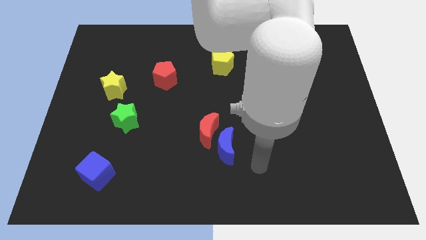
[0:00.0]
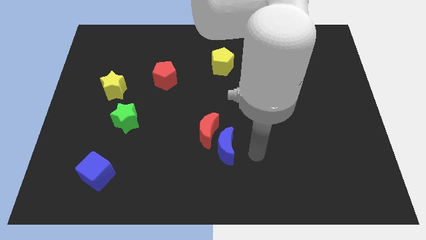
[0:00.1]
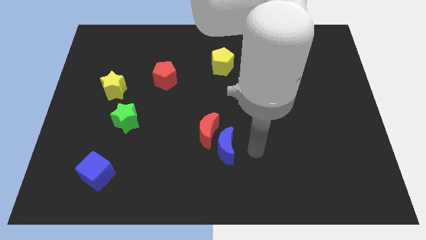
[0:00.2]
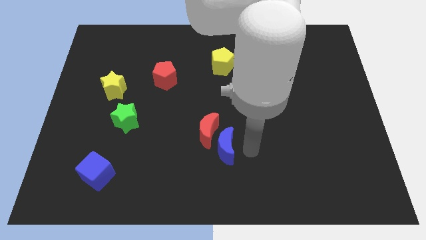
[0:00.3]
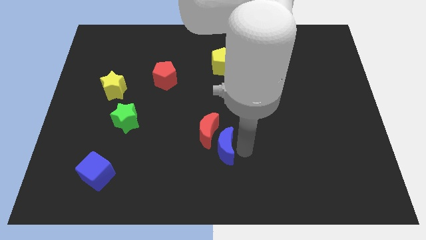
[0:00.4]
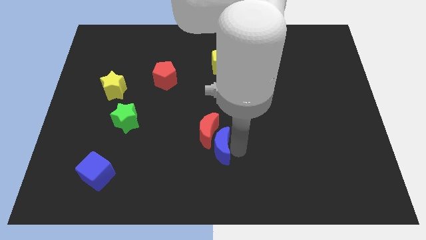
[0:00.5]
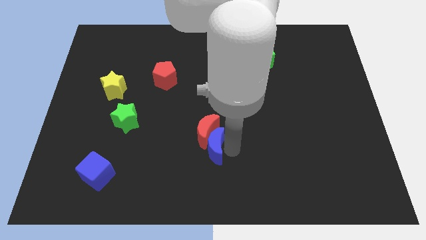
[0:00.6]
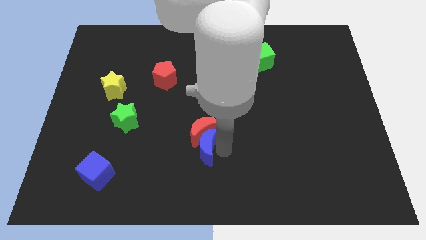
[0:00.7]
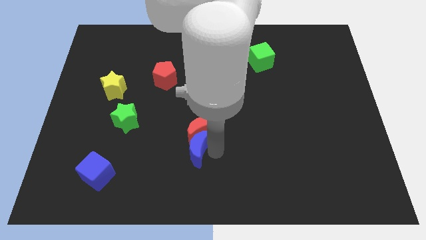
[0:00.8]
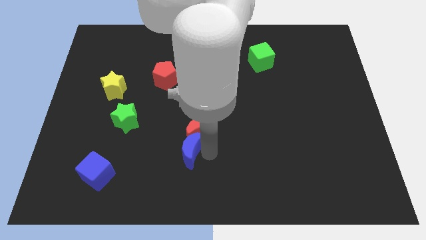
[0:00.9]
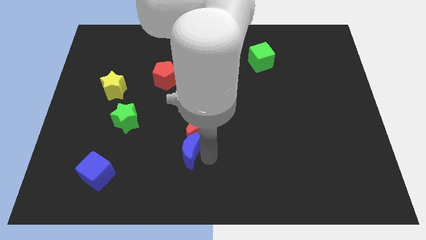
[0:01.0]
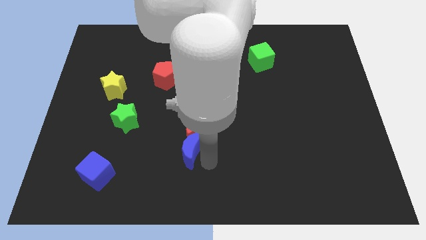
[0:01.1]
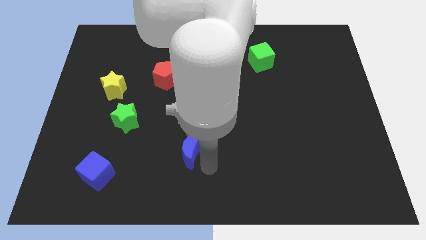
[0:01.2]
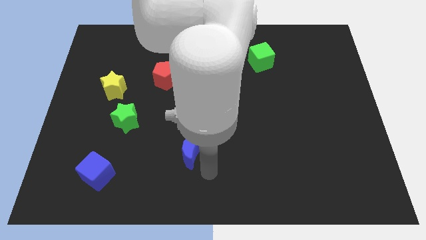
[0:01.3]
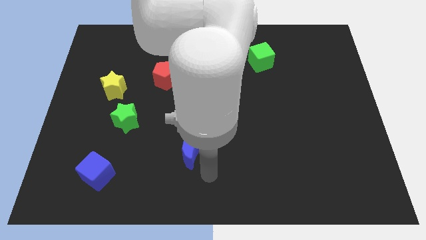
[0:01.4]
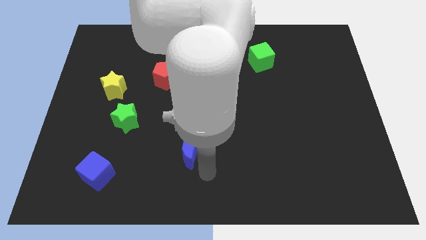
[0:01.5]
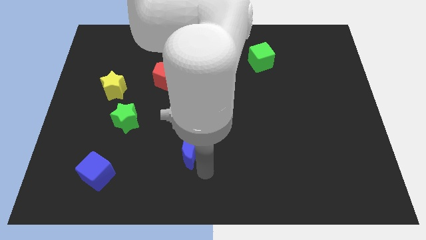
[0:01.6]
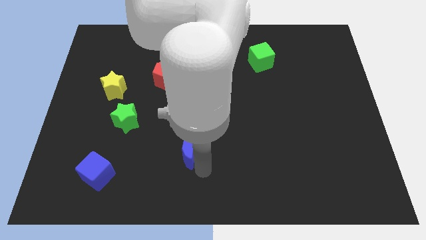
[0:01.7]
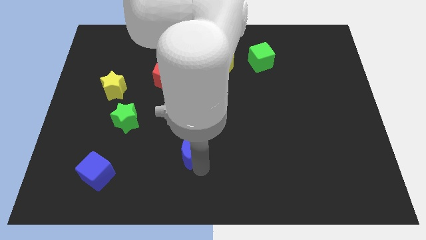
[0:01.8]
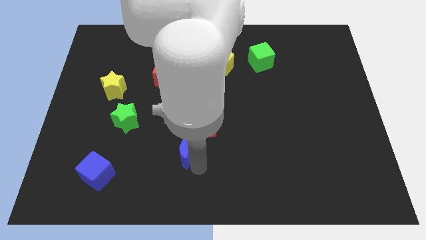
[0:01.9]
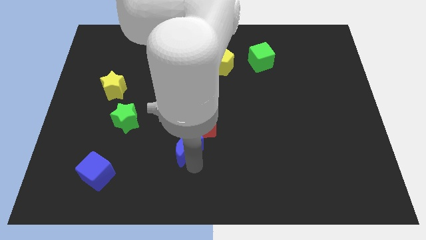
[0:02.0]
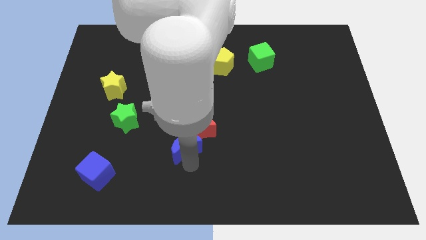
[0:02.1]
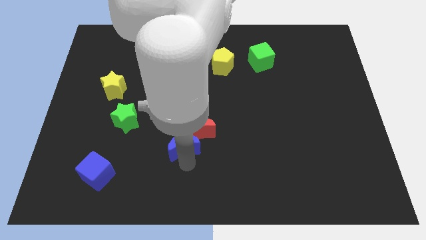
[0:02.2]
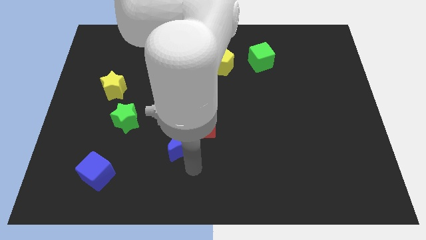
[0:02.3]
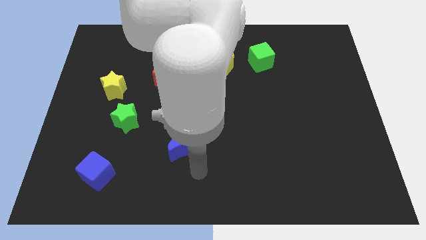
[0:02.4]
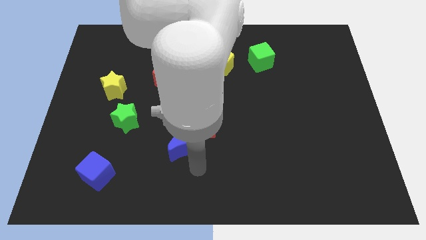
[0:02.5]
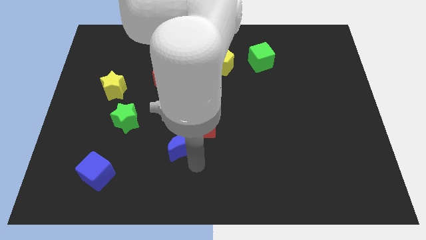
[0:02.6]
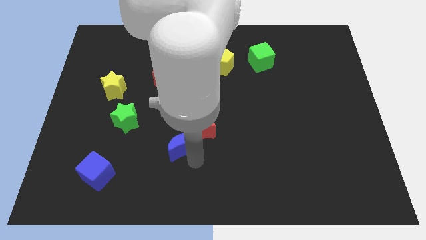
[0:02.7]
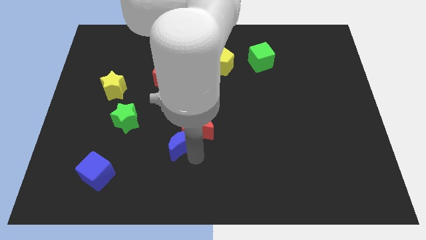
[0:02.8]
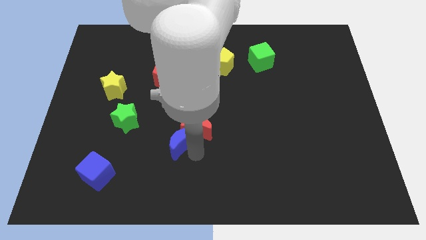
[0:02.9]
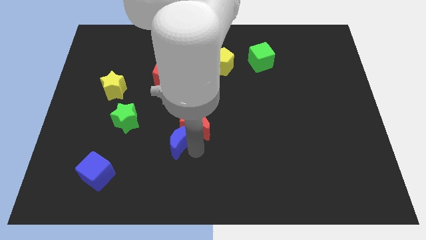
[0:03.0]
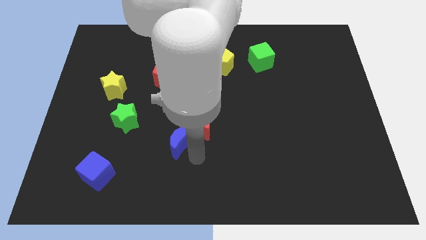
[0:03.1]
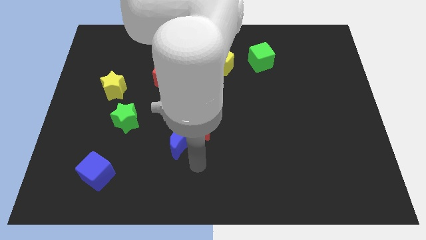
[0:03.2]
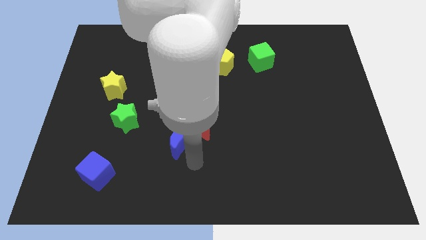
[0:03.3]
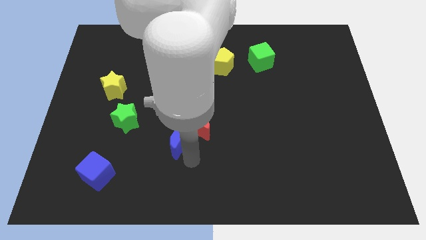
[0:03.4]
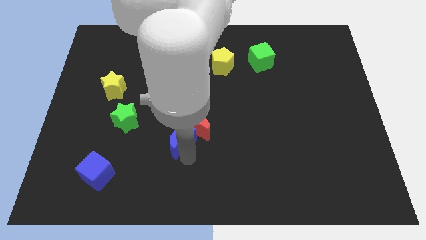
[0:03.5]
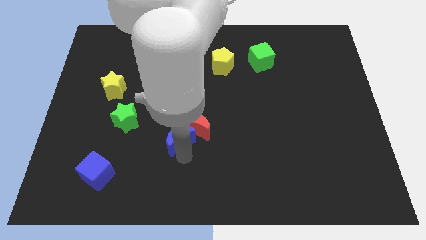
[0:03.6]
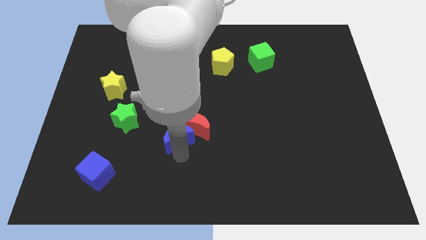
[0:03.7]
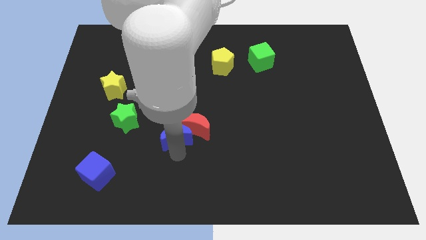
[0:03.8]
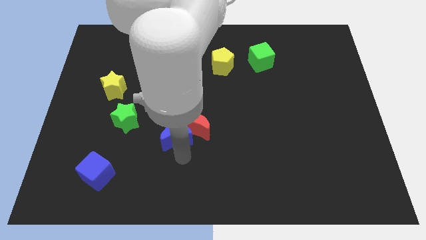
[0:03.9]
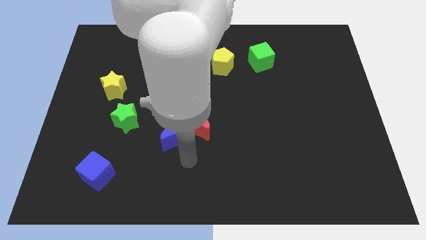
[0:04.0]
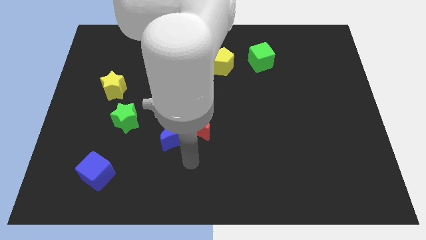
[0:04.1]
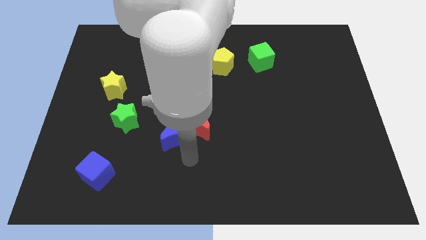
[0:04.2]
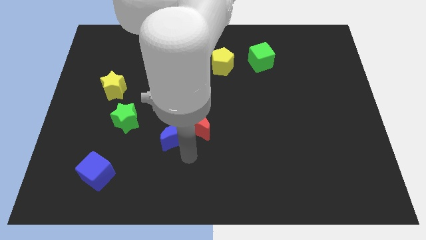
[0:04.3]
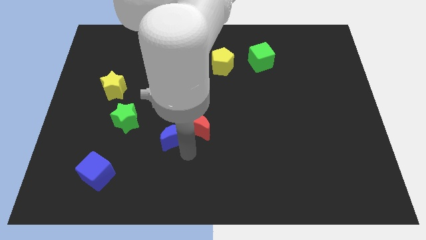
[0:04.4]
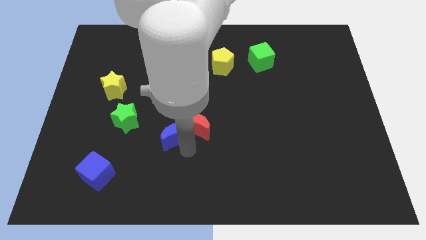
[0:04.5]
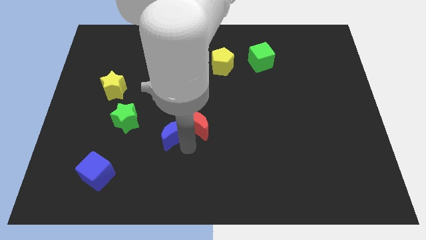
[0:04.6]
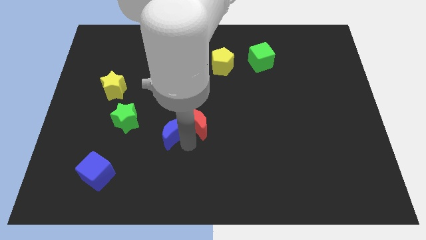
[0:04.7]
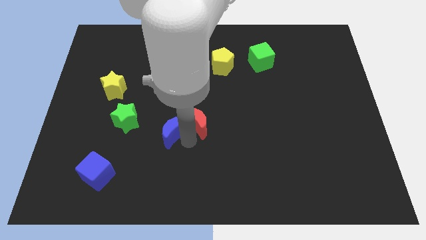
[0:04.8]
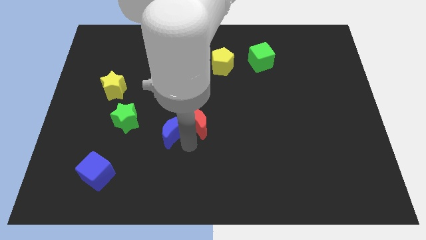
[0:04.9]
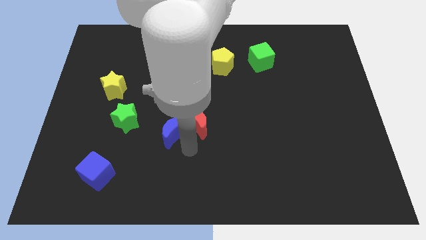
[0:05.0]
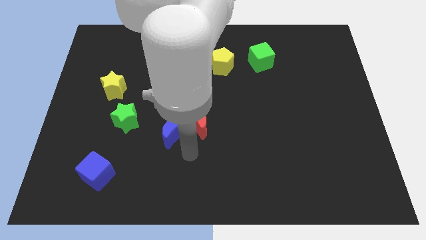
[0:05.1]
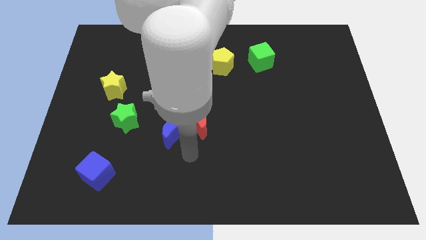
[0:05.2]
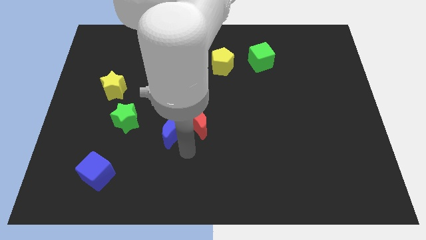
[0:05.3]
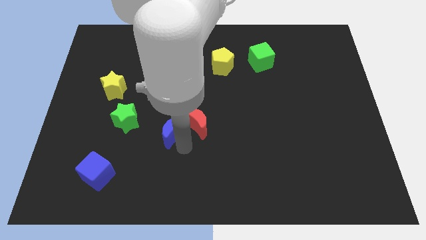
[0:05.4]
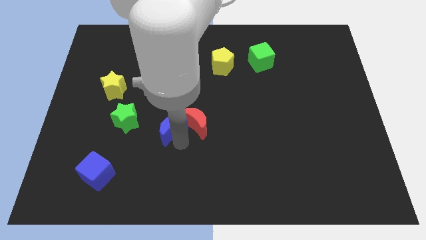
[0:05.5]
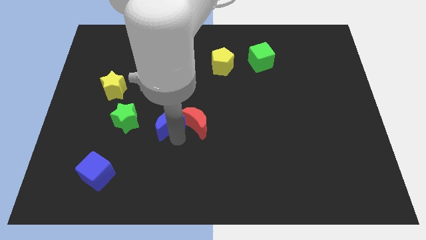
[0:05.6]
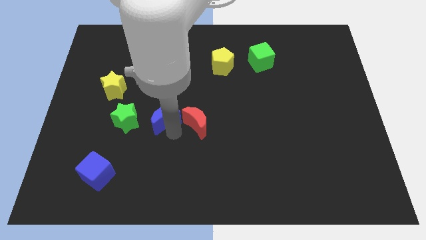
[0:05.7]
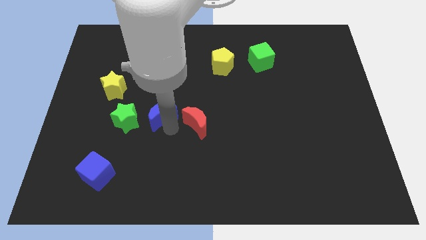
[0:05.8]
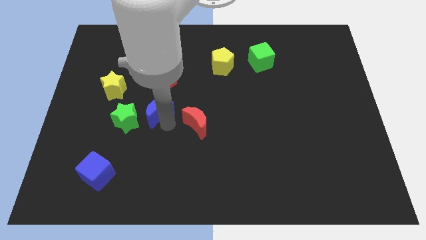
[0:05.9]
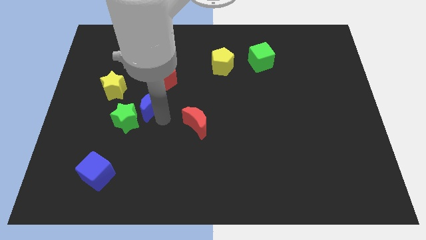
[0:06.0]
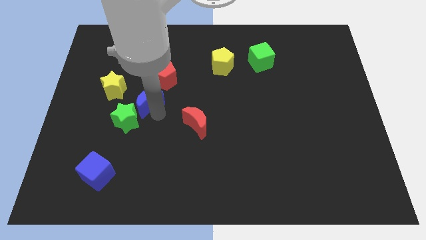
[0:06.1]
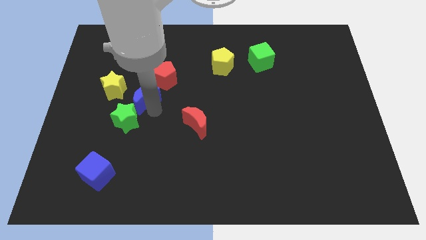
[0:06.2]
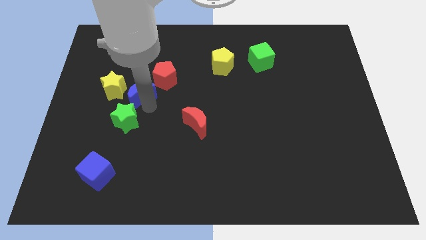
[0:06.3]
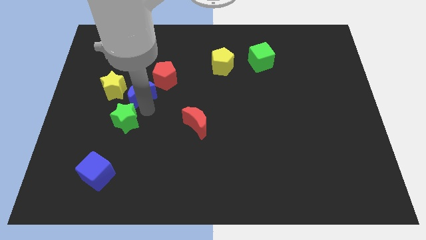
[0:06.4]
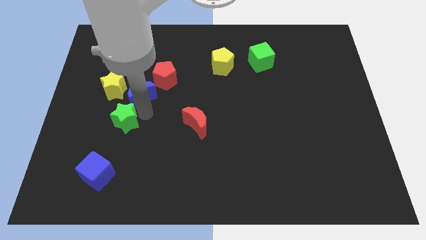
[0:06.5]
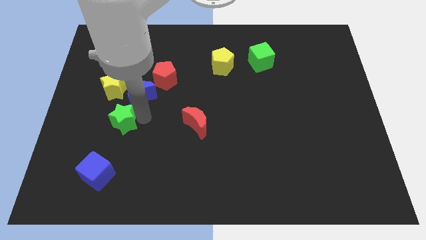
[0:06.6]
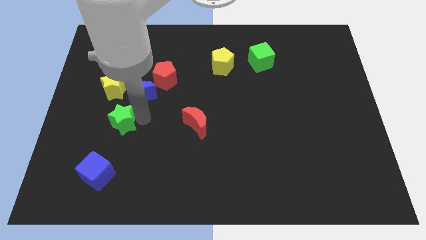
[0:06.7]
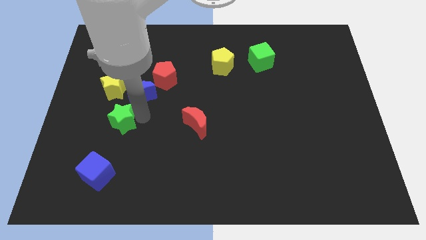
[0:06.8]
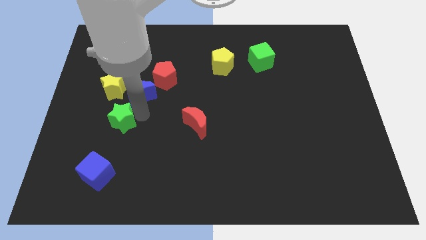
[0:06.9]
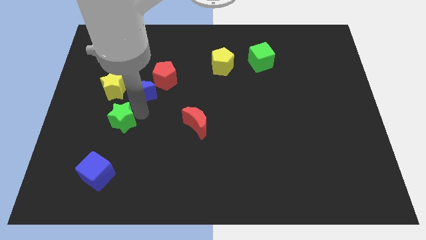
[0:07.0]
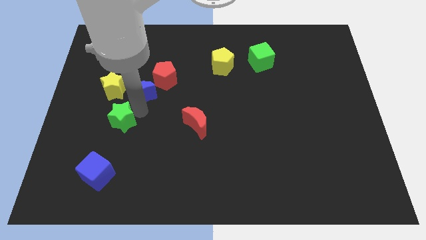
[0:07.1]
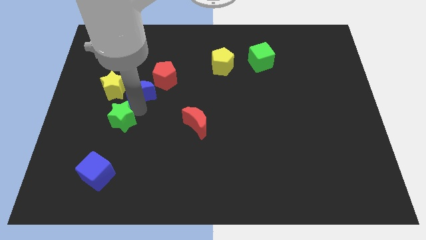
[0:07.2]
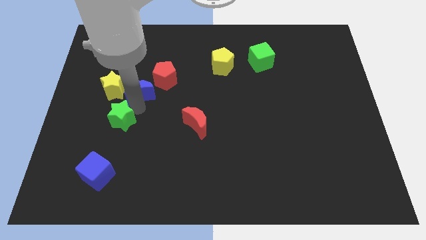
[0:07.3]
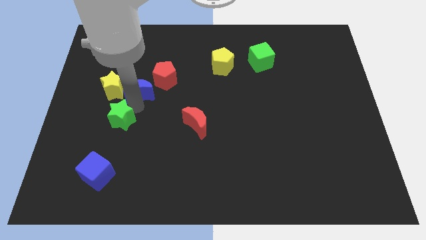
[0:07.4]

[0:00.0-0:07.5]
slide the blue moon to the left of the red pentagon
